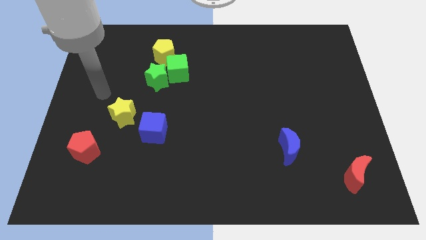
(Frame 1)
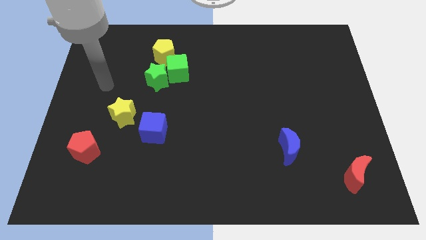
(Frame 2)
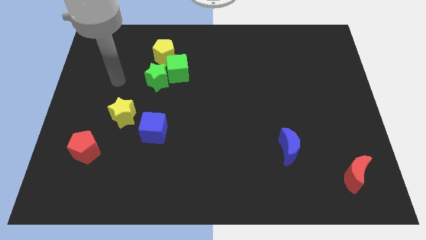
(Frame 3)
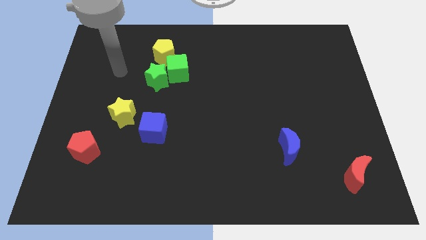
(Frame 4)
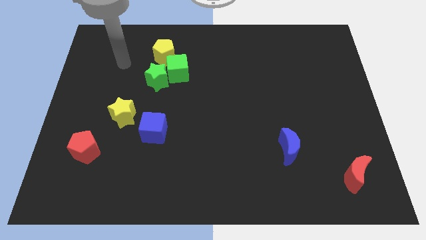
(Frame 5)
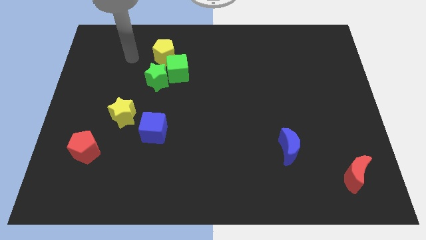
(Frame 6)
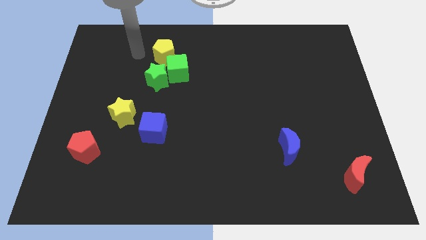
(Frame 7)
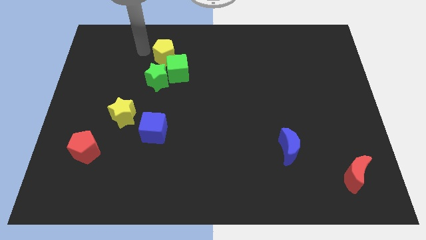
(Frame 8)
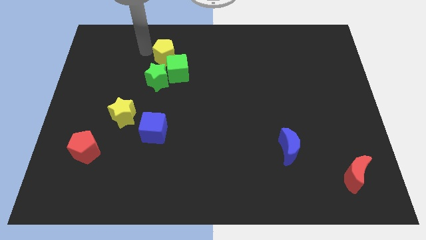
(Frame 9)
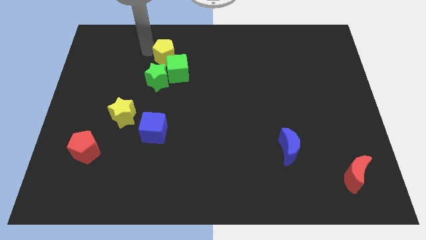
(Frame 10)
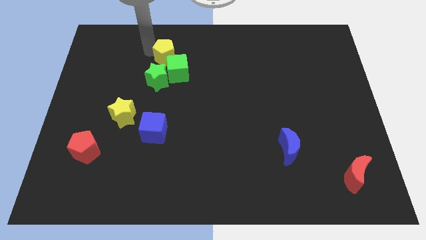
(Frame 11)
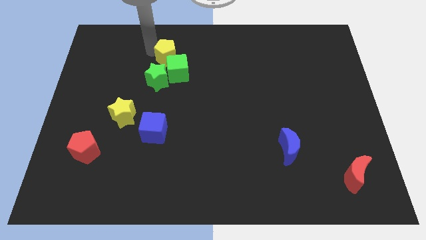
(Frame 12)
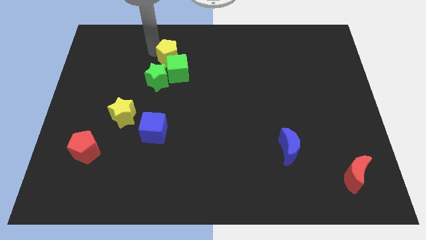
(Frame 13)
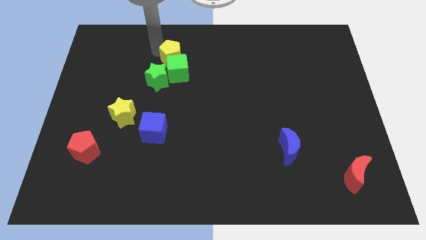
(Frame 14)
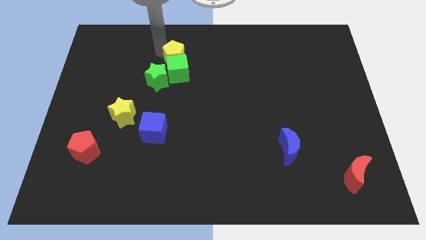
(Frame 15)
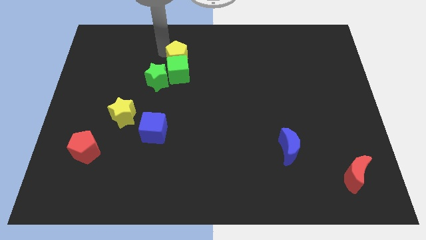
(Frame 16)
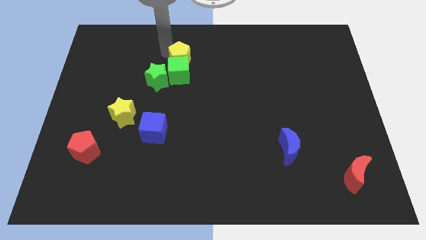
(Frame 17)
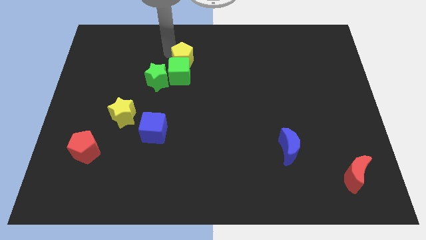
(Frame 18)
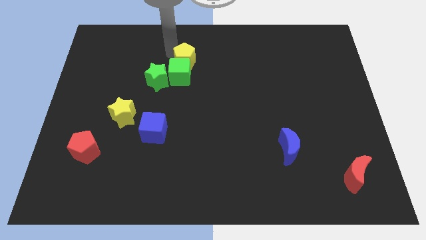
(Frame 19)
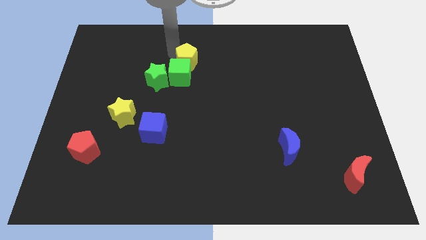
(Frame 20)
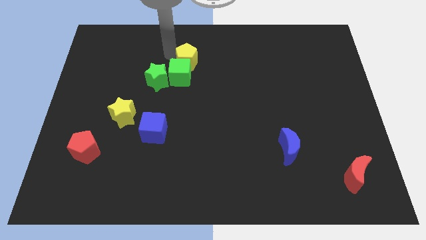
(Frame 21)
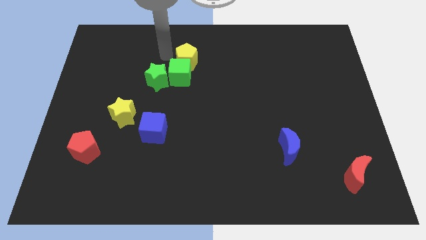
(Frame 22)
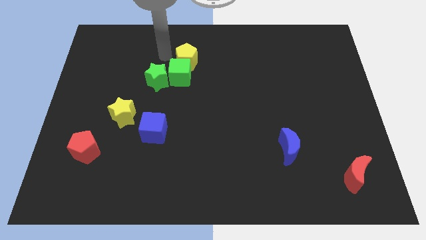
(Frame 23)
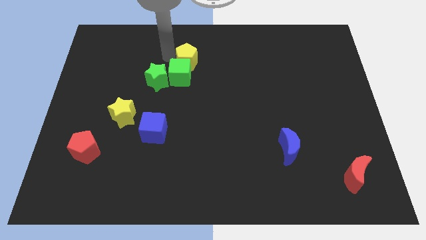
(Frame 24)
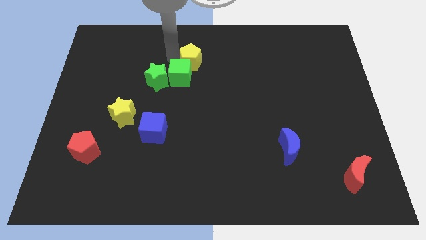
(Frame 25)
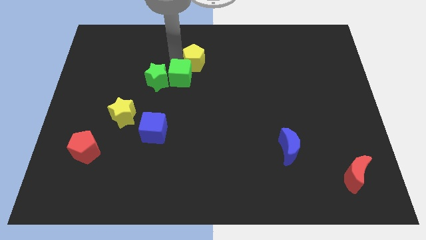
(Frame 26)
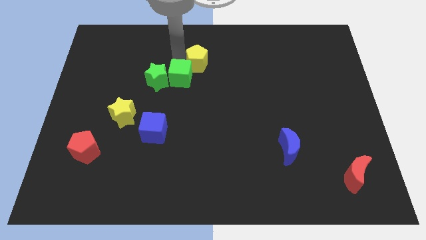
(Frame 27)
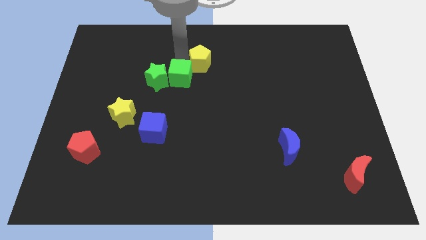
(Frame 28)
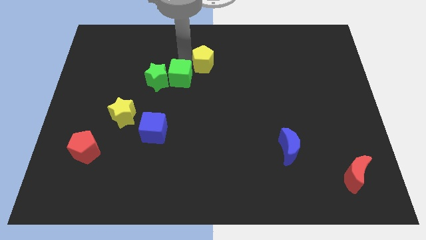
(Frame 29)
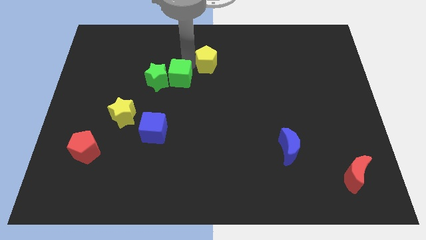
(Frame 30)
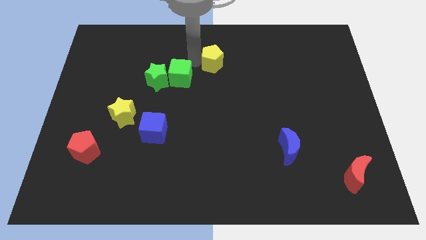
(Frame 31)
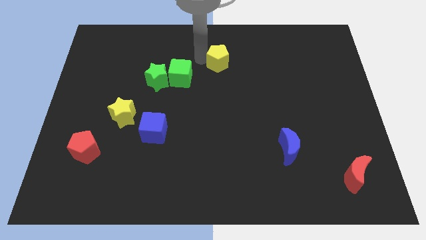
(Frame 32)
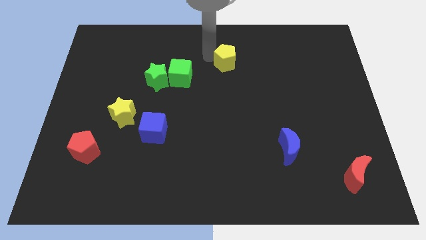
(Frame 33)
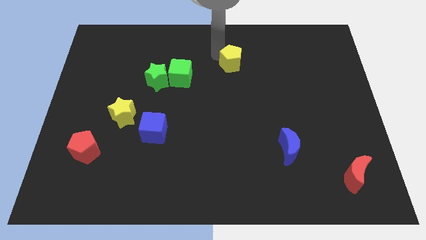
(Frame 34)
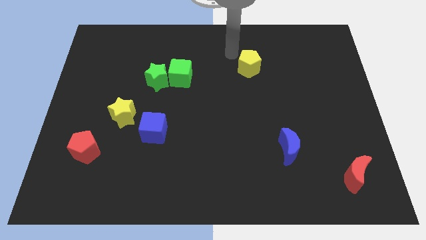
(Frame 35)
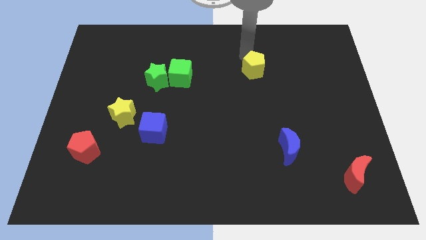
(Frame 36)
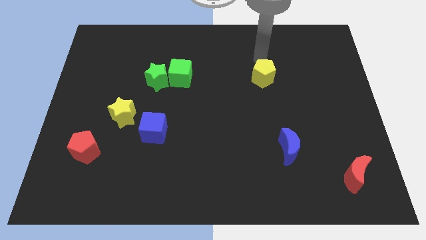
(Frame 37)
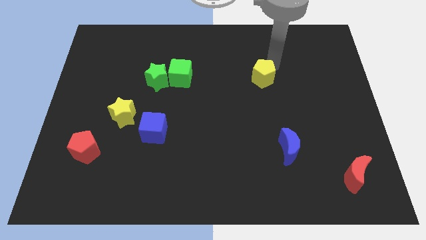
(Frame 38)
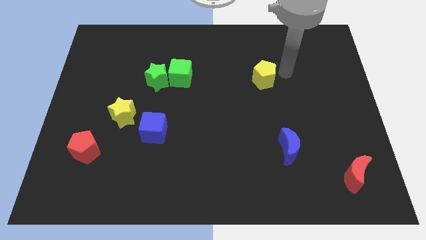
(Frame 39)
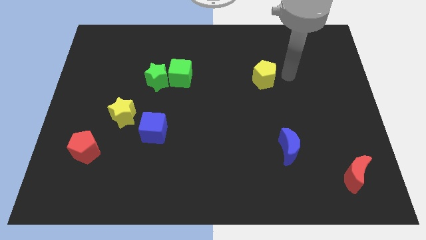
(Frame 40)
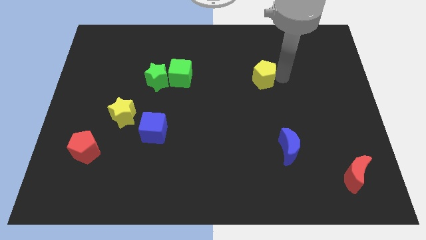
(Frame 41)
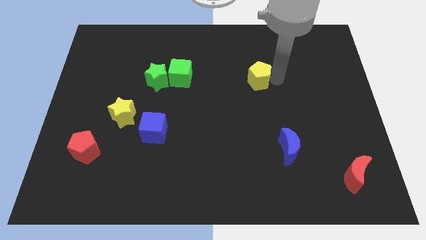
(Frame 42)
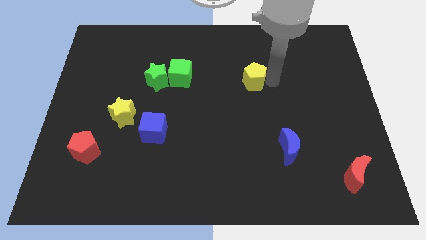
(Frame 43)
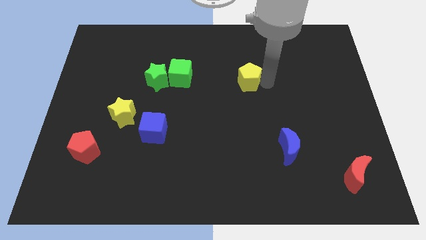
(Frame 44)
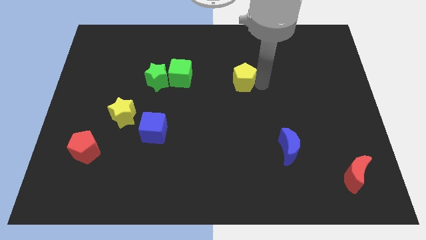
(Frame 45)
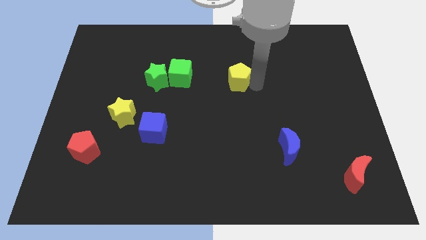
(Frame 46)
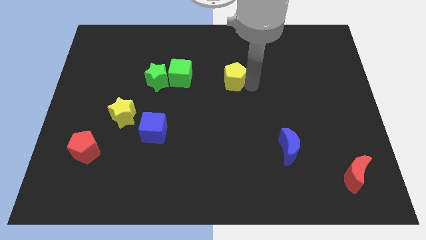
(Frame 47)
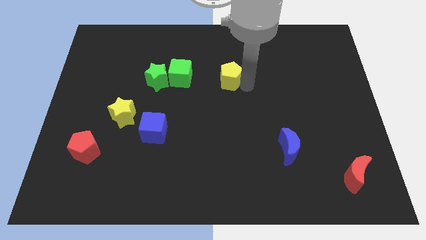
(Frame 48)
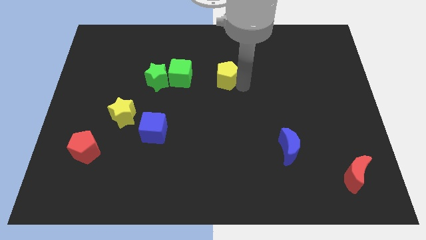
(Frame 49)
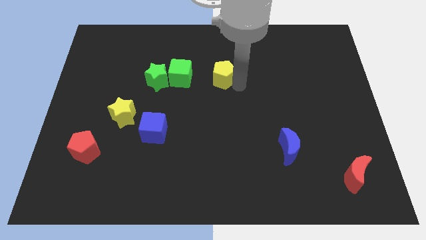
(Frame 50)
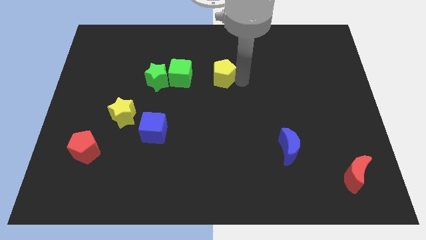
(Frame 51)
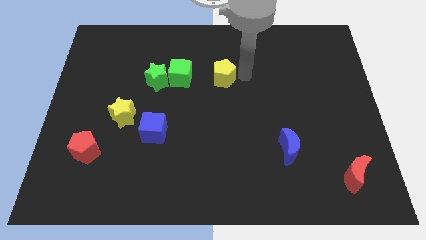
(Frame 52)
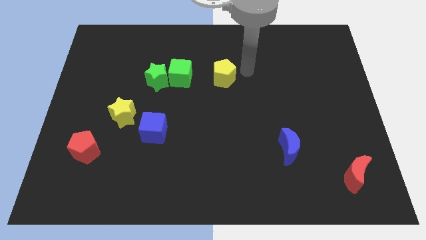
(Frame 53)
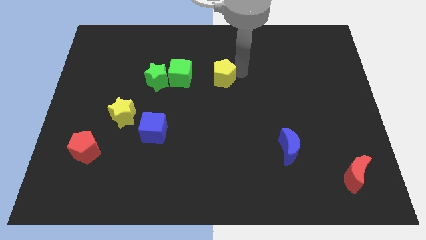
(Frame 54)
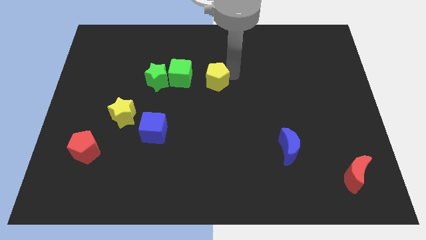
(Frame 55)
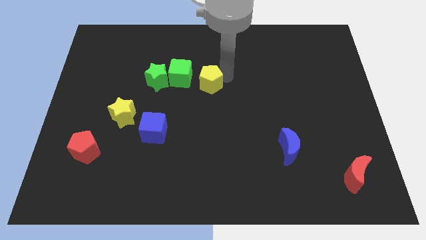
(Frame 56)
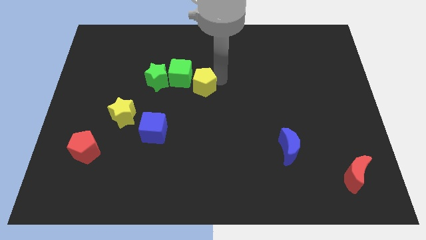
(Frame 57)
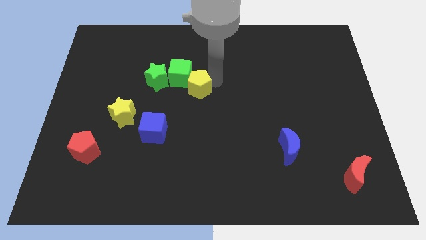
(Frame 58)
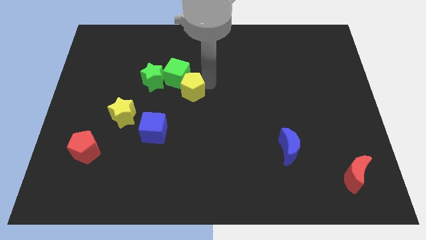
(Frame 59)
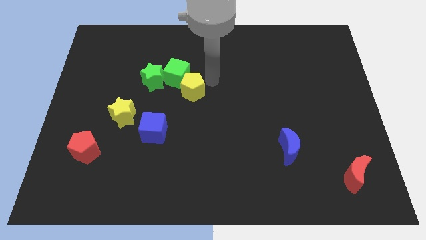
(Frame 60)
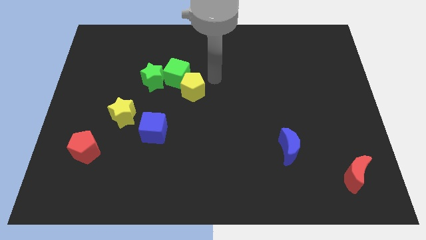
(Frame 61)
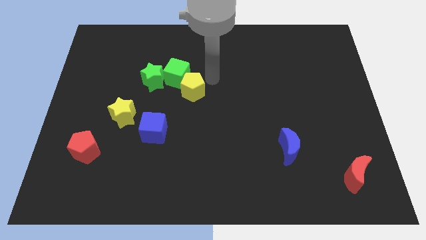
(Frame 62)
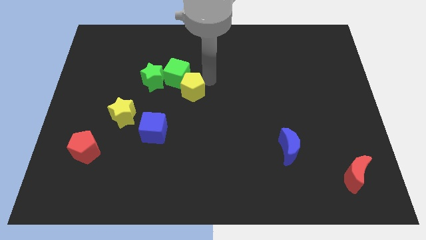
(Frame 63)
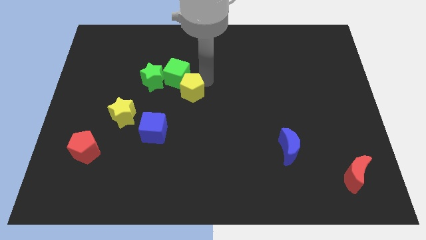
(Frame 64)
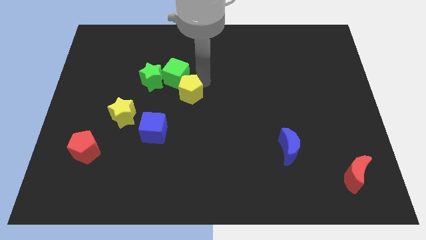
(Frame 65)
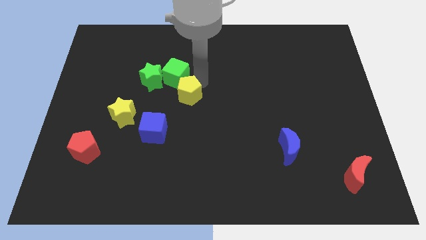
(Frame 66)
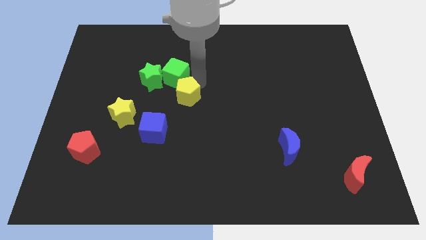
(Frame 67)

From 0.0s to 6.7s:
push the yellow pentagon diagonally up and to the right of the blue cube
